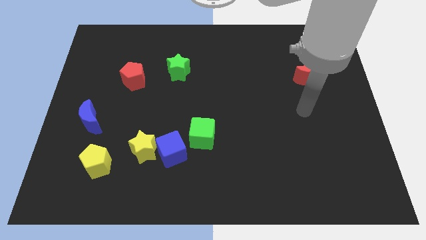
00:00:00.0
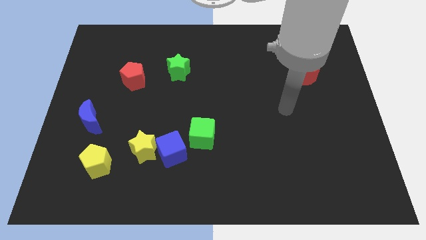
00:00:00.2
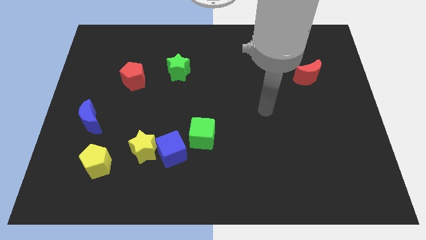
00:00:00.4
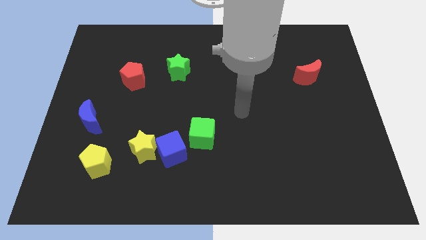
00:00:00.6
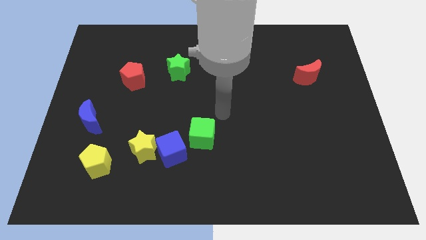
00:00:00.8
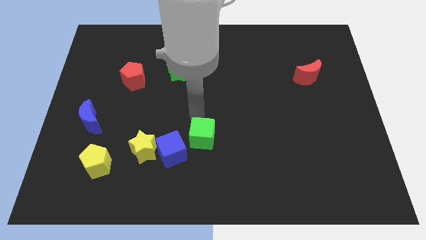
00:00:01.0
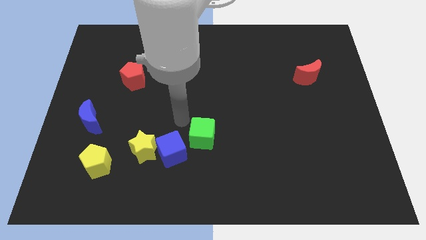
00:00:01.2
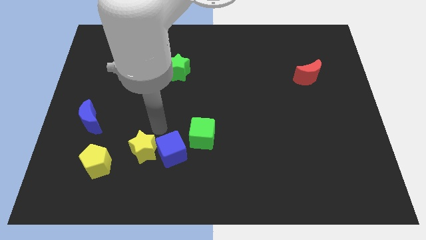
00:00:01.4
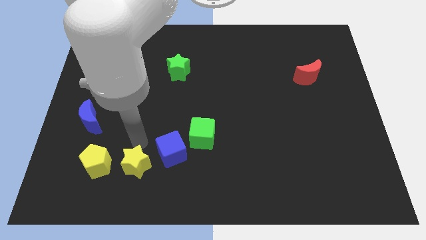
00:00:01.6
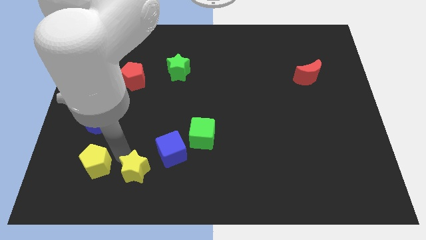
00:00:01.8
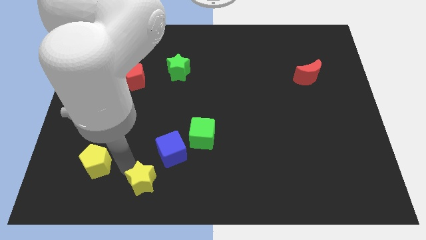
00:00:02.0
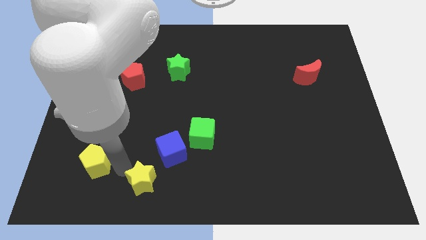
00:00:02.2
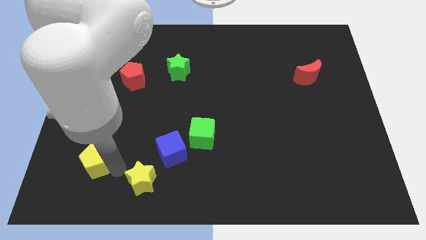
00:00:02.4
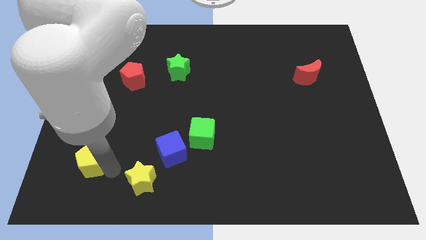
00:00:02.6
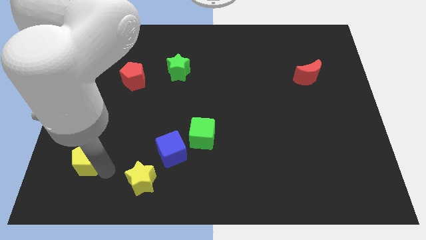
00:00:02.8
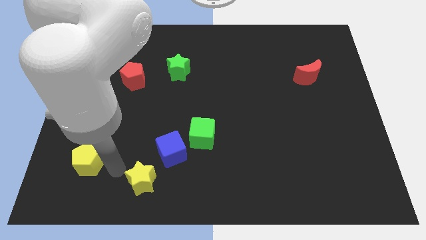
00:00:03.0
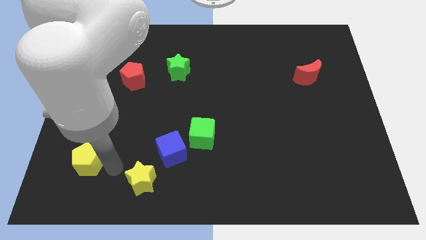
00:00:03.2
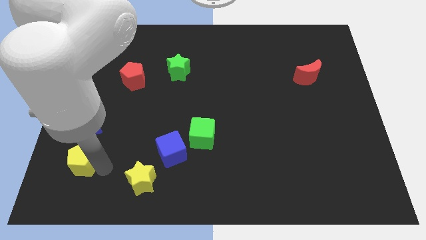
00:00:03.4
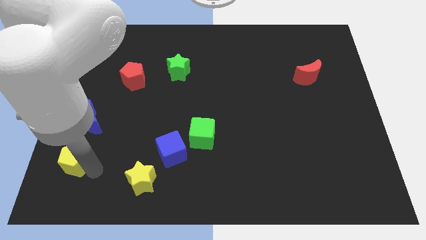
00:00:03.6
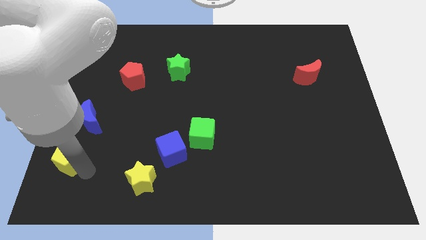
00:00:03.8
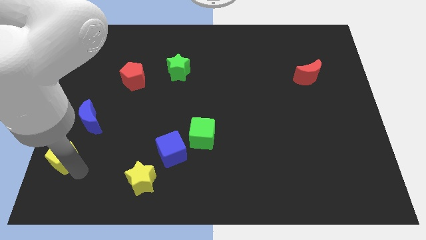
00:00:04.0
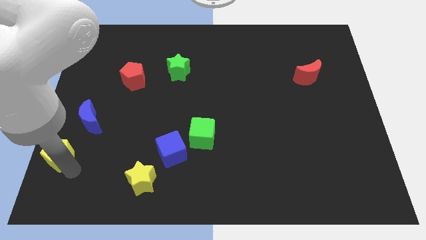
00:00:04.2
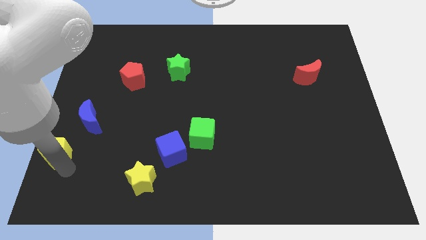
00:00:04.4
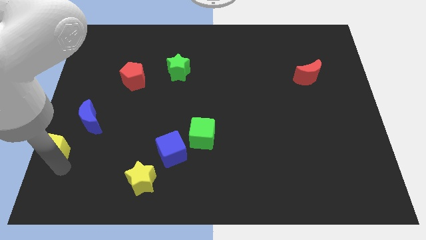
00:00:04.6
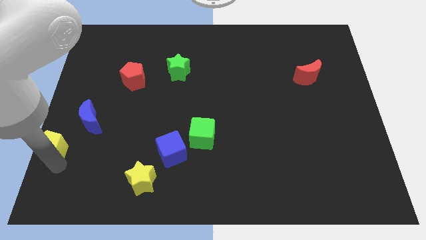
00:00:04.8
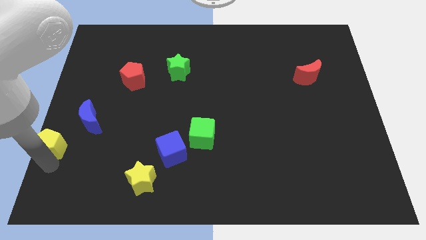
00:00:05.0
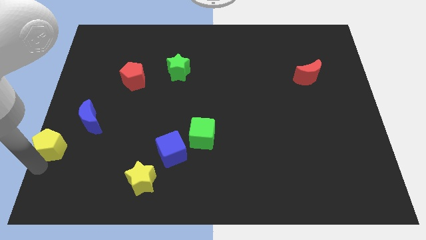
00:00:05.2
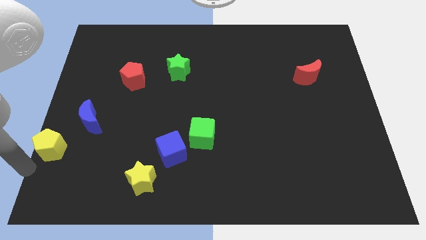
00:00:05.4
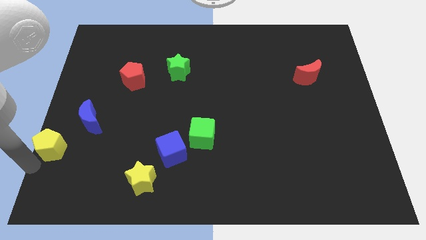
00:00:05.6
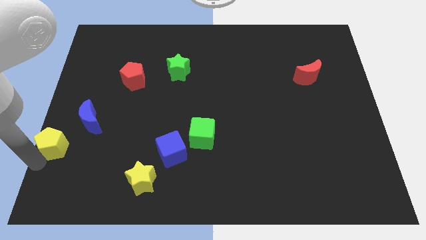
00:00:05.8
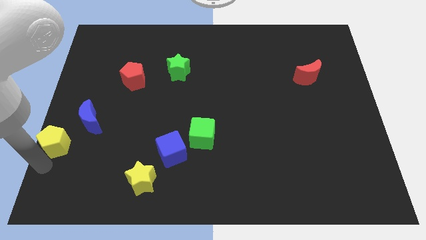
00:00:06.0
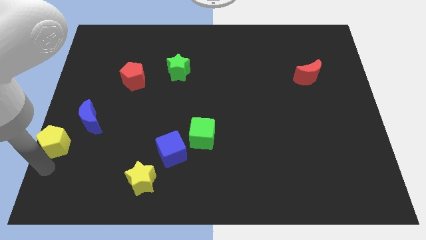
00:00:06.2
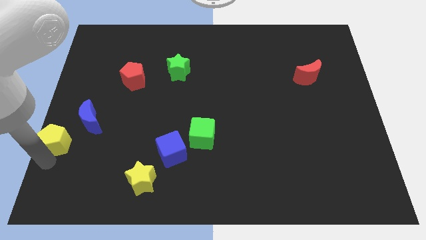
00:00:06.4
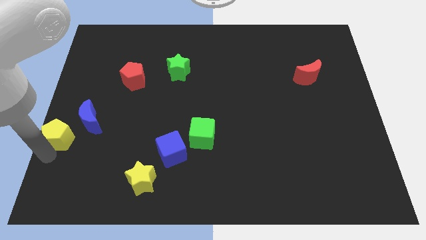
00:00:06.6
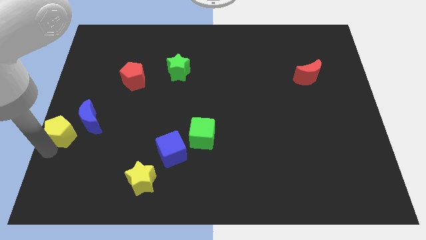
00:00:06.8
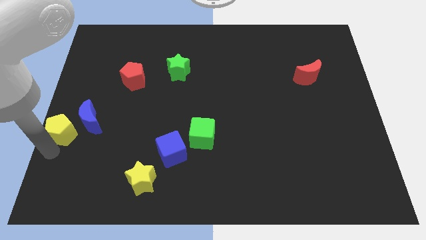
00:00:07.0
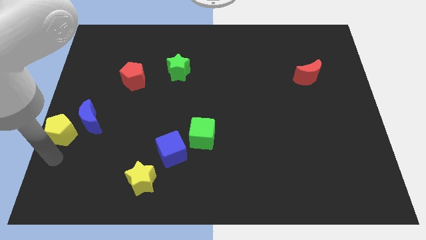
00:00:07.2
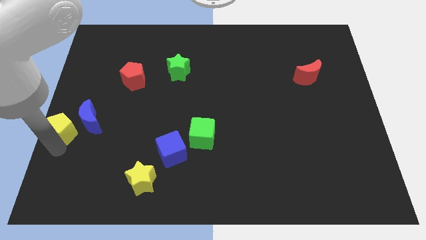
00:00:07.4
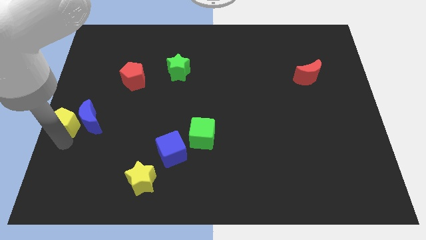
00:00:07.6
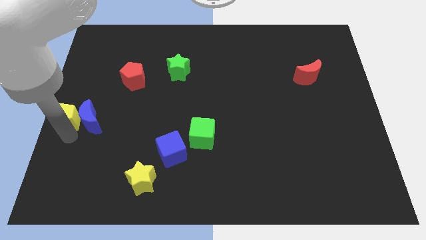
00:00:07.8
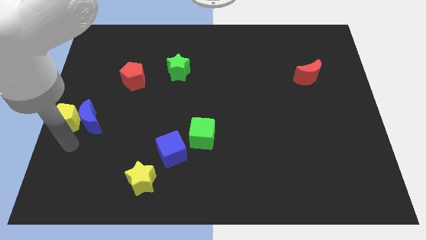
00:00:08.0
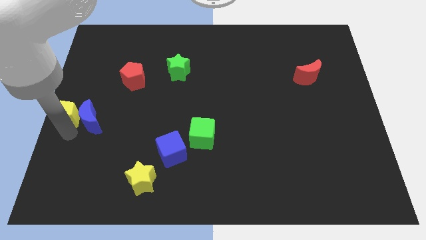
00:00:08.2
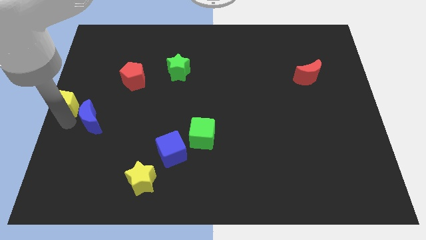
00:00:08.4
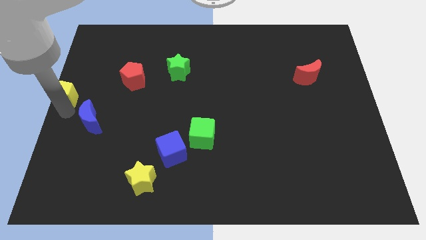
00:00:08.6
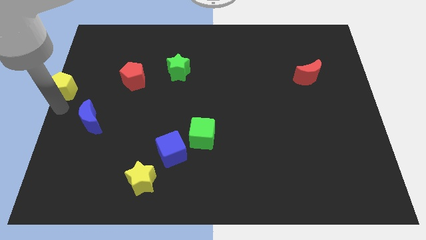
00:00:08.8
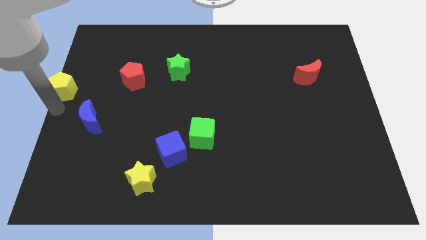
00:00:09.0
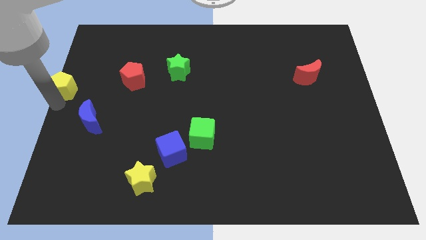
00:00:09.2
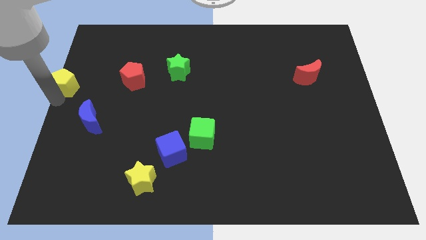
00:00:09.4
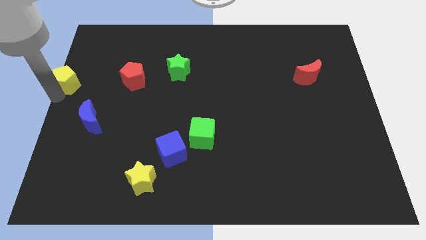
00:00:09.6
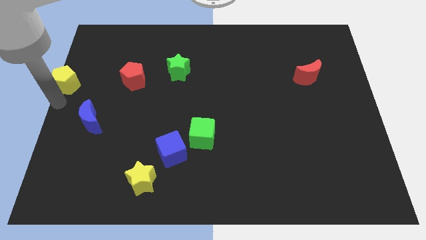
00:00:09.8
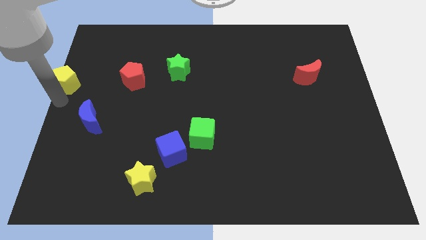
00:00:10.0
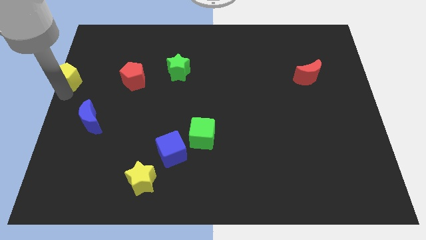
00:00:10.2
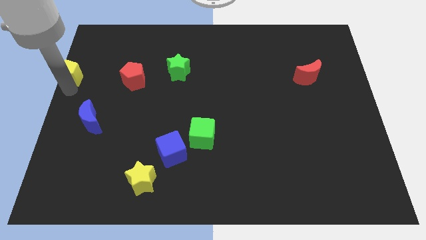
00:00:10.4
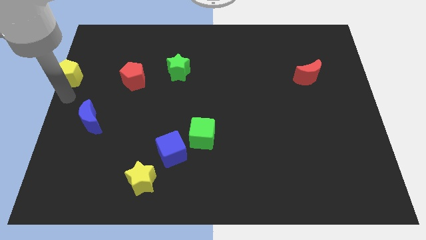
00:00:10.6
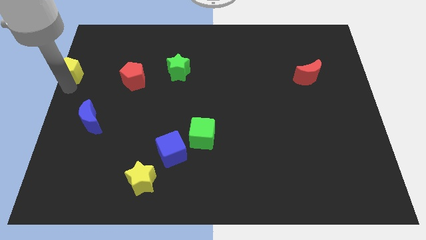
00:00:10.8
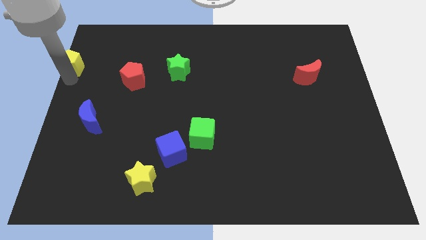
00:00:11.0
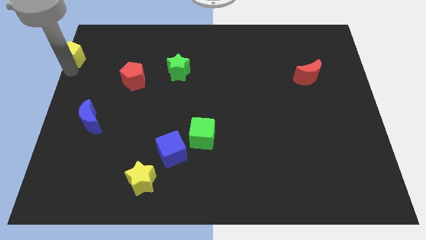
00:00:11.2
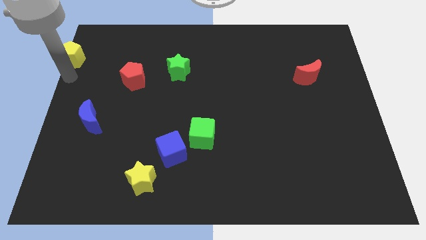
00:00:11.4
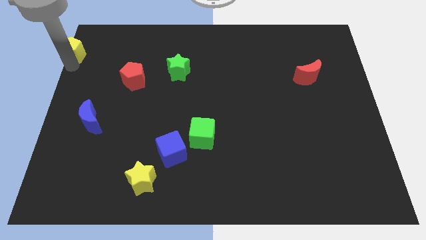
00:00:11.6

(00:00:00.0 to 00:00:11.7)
push the yellow pentagon to the top left corner
